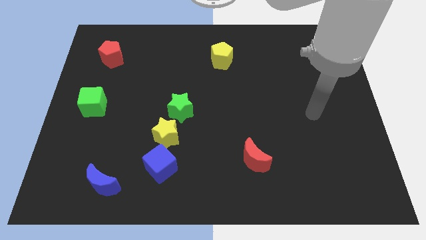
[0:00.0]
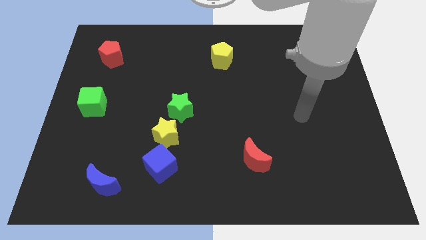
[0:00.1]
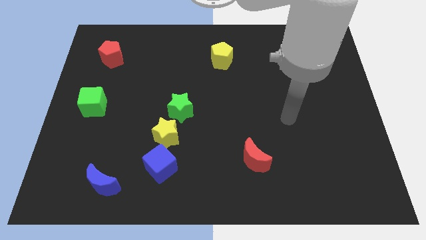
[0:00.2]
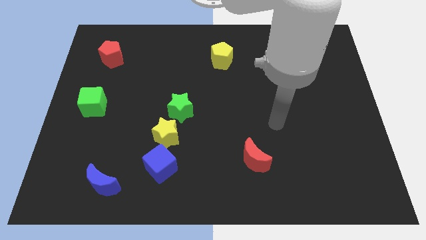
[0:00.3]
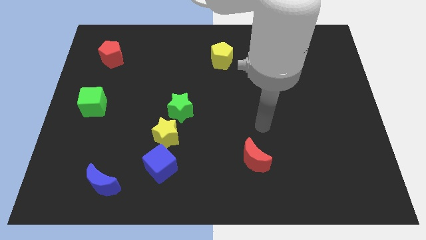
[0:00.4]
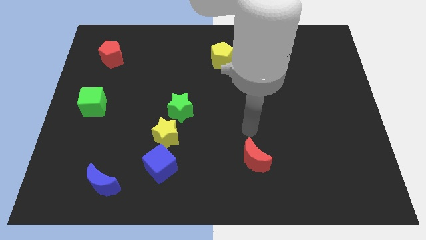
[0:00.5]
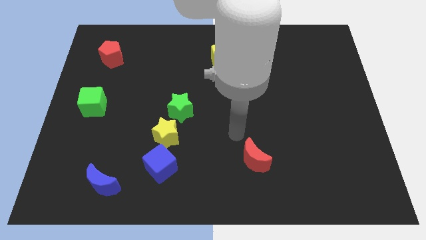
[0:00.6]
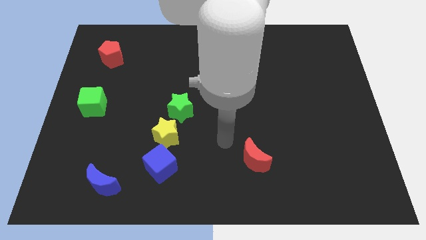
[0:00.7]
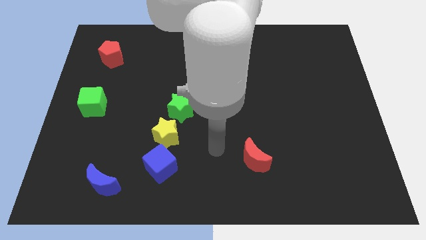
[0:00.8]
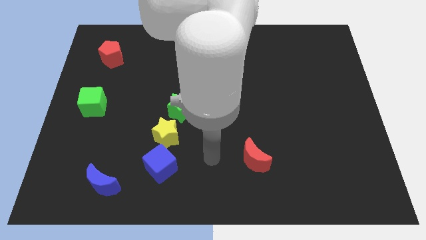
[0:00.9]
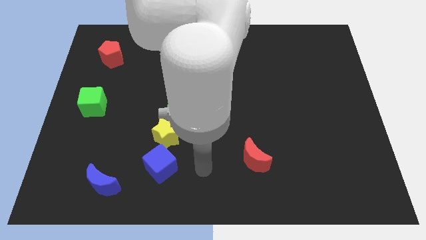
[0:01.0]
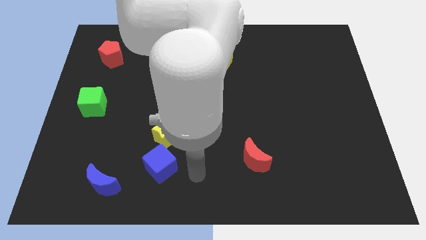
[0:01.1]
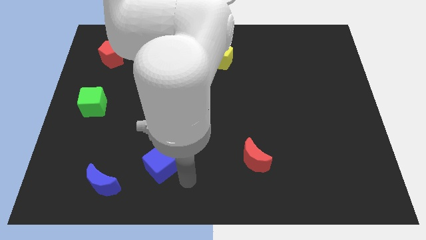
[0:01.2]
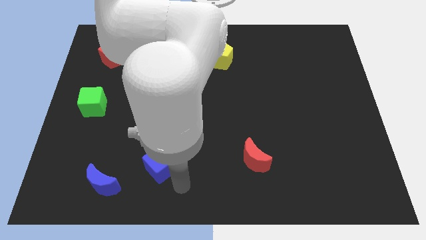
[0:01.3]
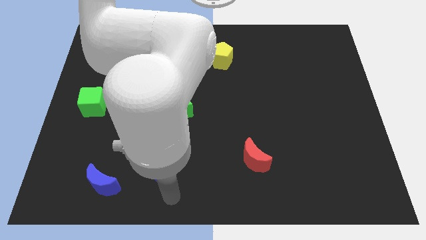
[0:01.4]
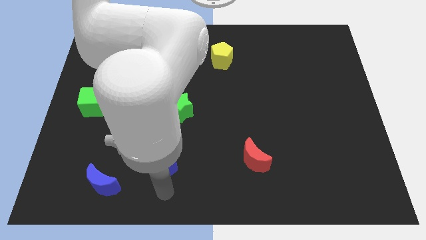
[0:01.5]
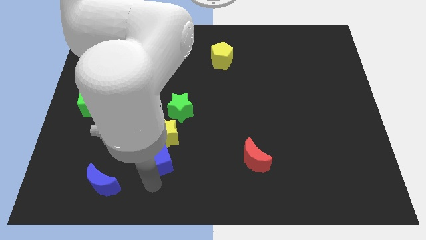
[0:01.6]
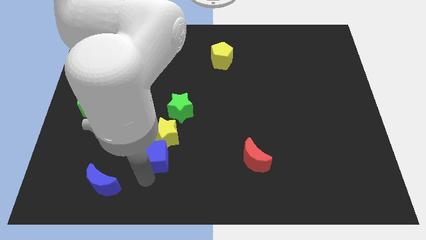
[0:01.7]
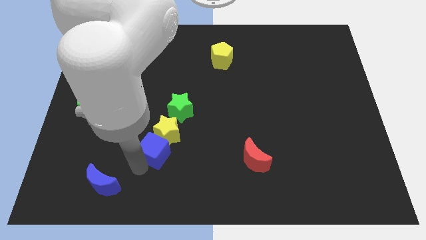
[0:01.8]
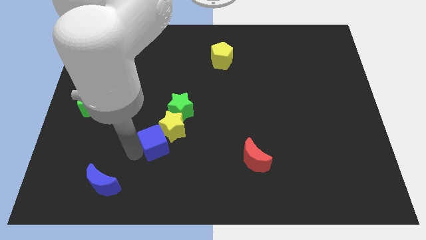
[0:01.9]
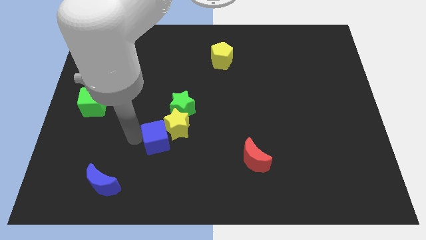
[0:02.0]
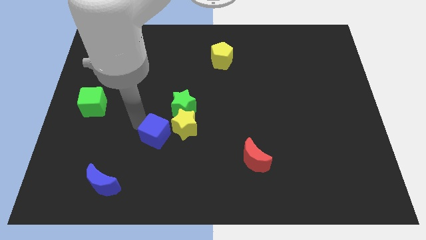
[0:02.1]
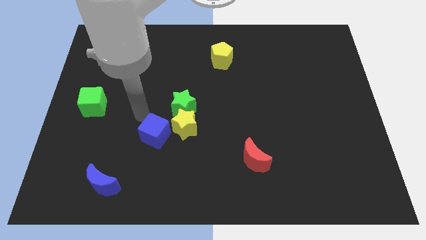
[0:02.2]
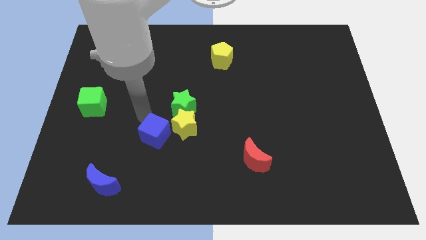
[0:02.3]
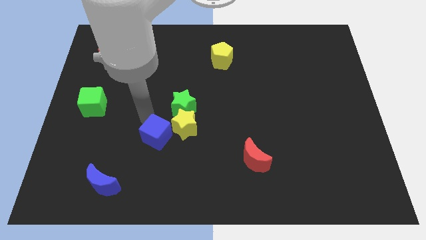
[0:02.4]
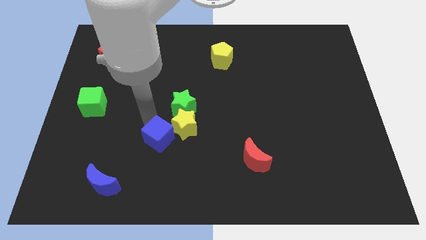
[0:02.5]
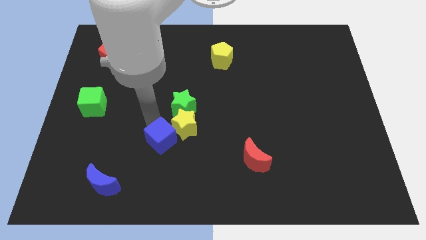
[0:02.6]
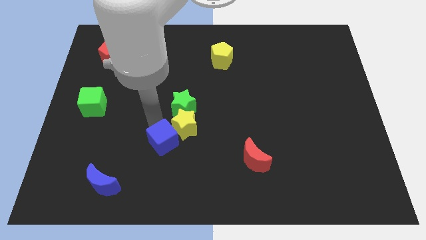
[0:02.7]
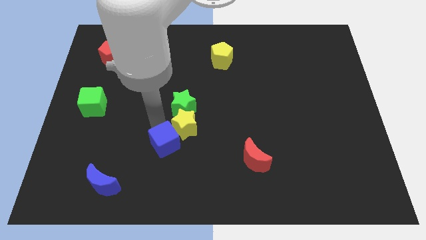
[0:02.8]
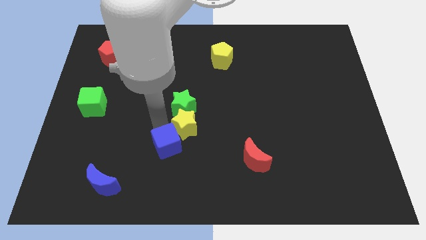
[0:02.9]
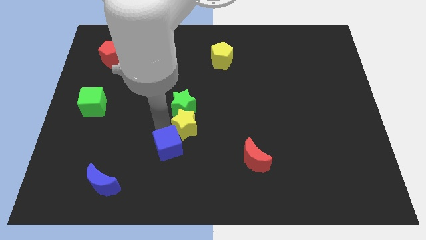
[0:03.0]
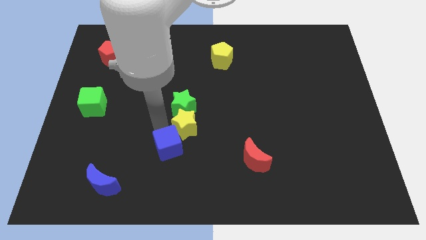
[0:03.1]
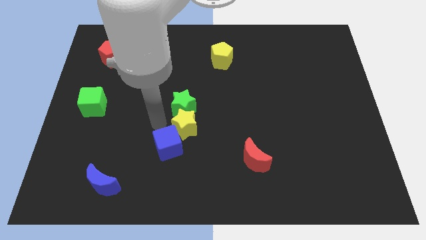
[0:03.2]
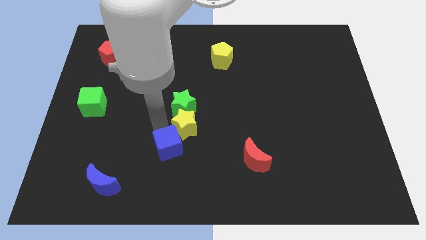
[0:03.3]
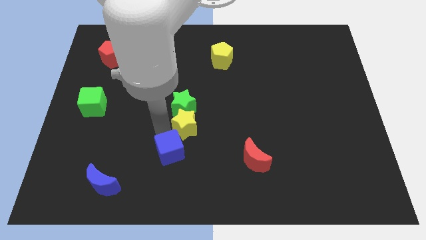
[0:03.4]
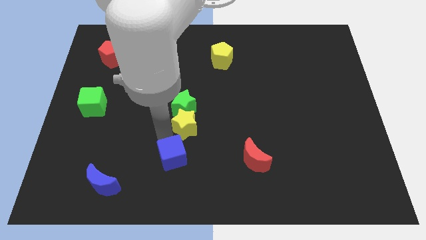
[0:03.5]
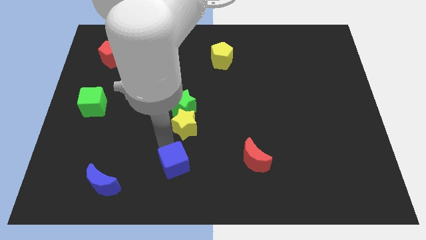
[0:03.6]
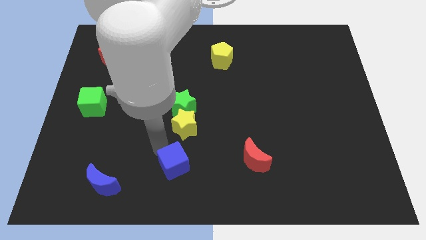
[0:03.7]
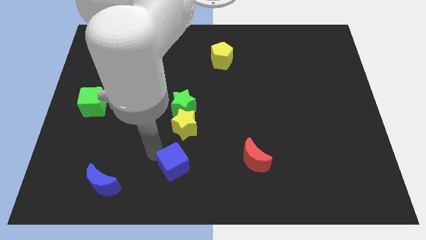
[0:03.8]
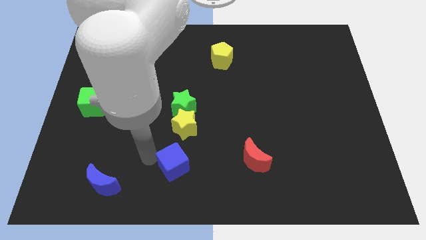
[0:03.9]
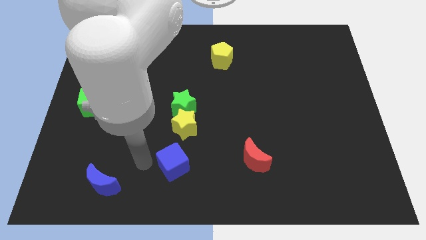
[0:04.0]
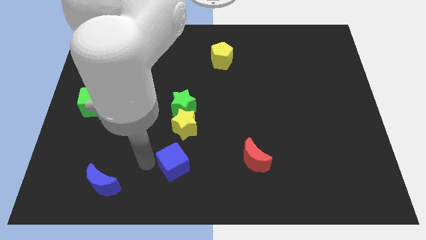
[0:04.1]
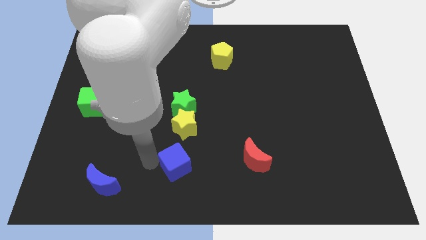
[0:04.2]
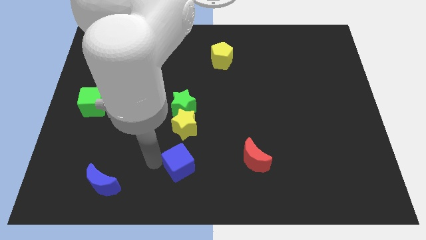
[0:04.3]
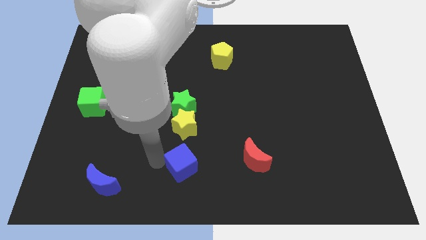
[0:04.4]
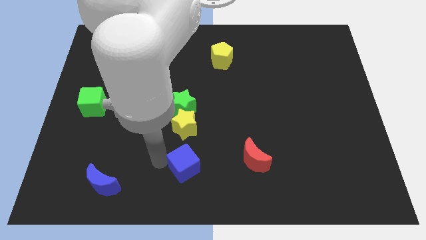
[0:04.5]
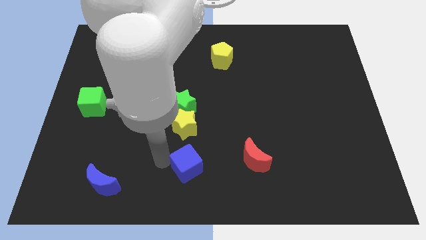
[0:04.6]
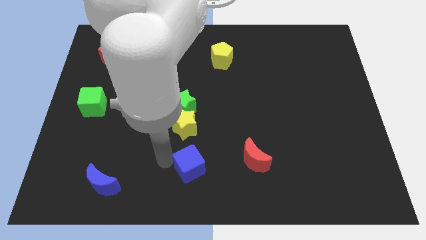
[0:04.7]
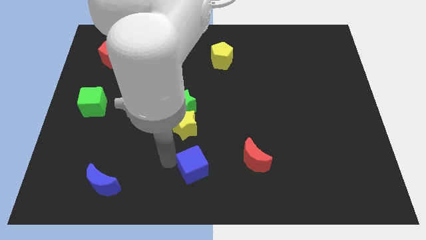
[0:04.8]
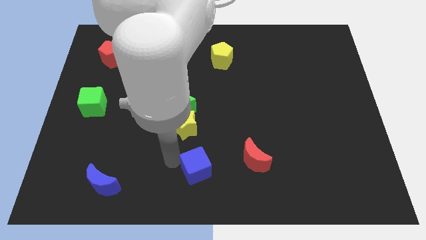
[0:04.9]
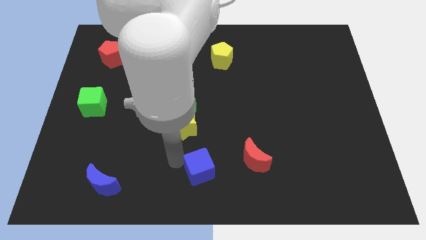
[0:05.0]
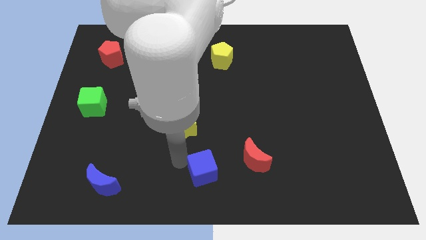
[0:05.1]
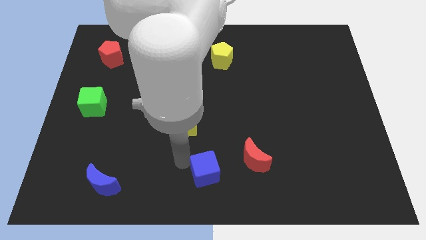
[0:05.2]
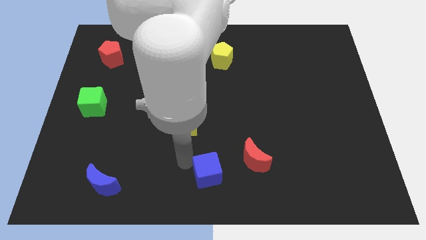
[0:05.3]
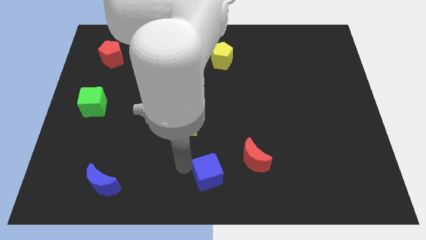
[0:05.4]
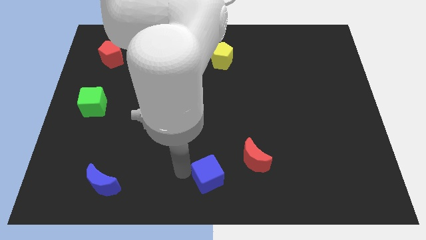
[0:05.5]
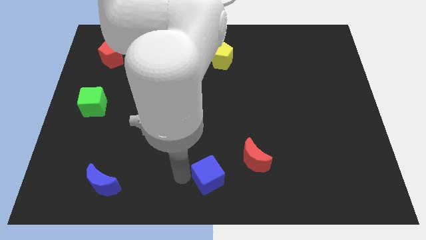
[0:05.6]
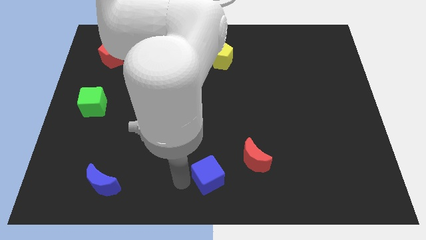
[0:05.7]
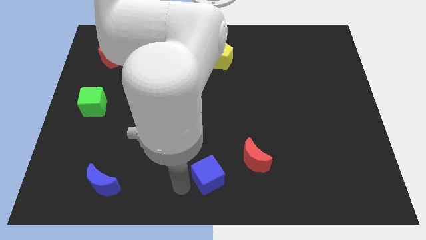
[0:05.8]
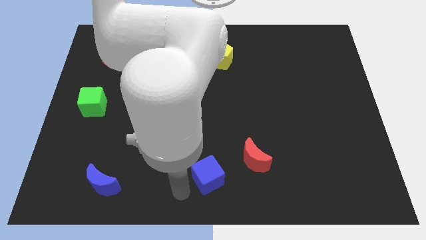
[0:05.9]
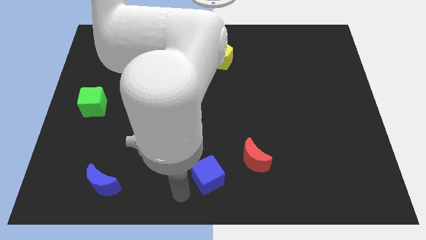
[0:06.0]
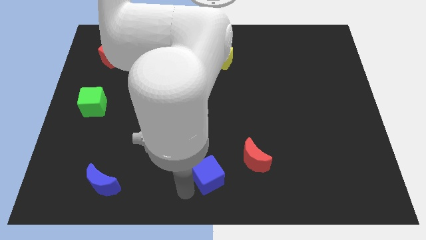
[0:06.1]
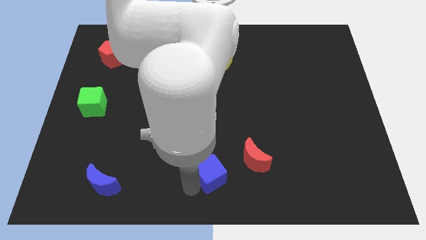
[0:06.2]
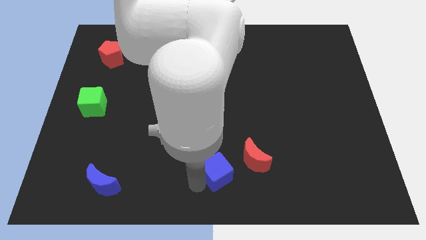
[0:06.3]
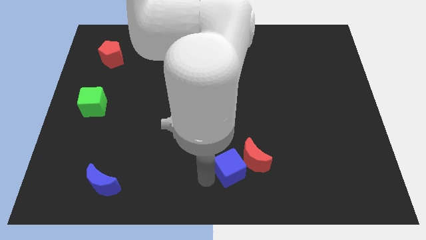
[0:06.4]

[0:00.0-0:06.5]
move the blue cube close to the red moon
